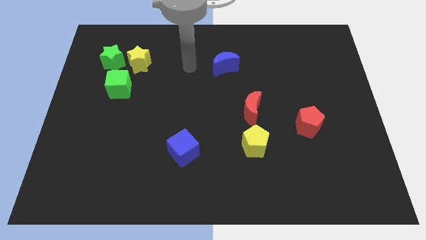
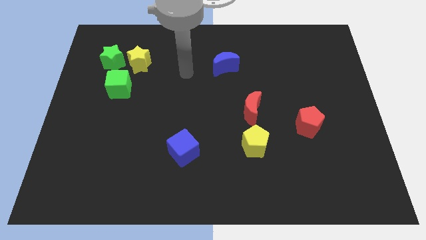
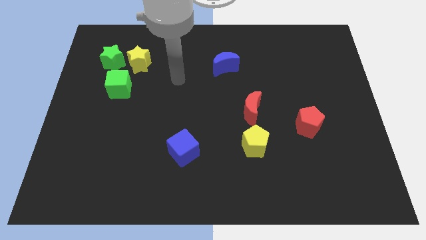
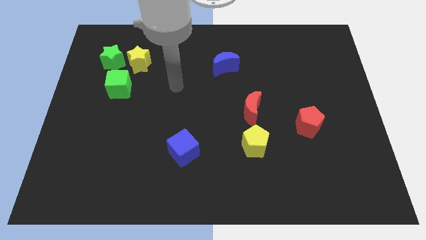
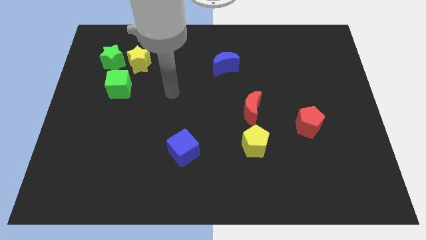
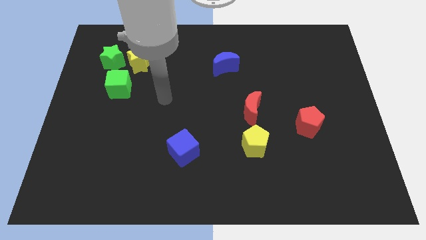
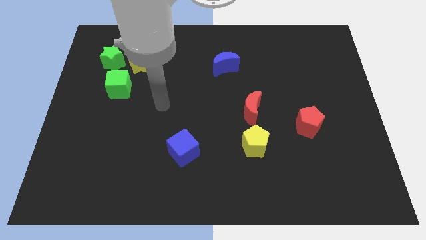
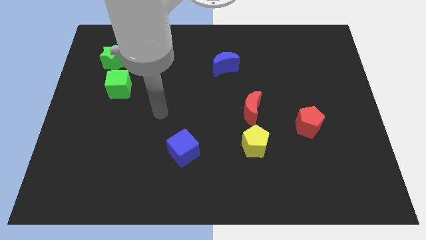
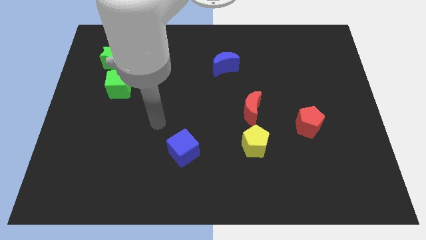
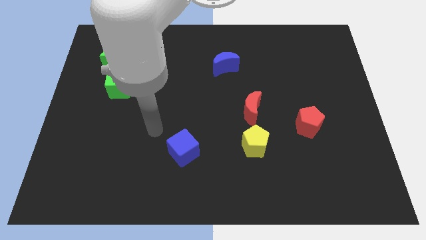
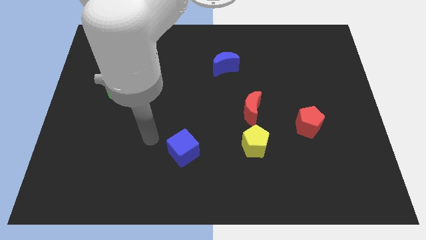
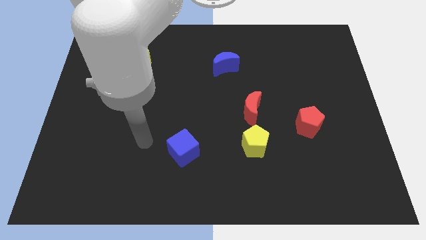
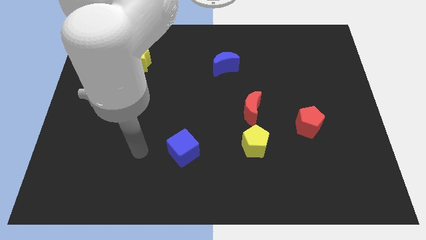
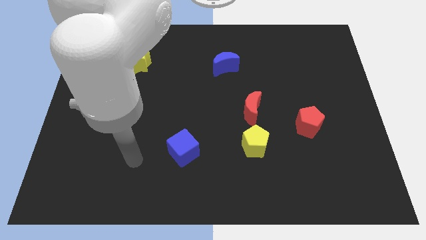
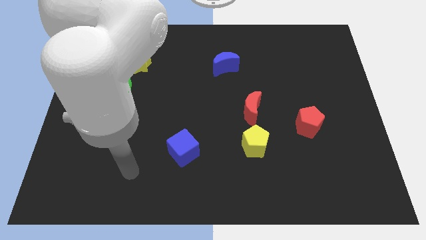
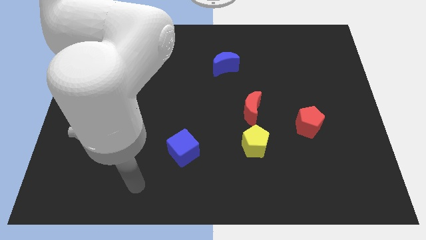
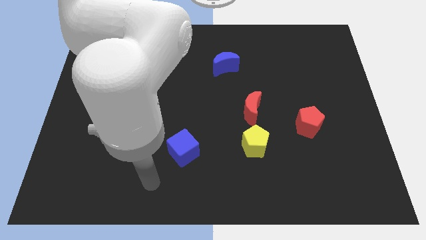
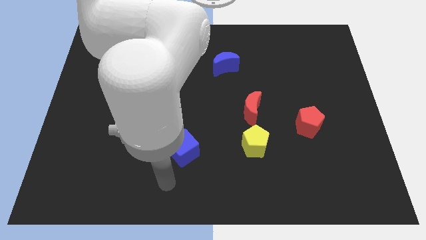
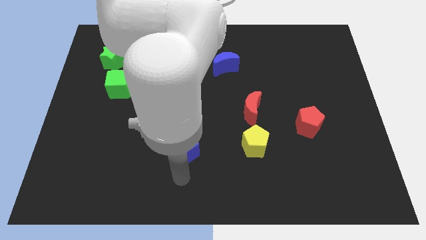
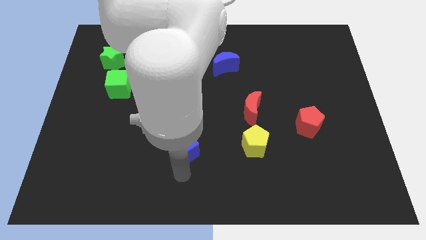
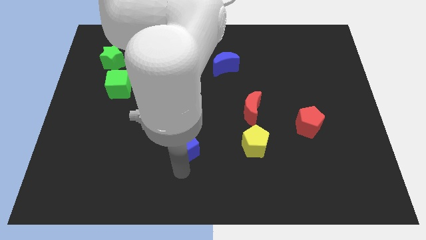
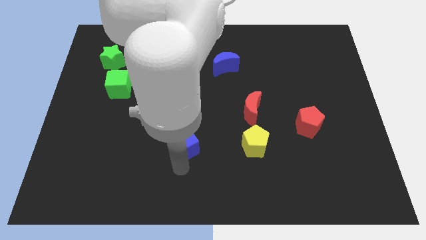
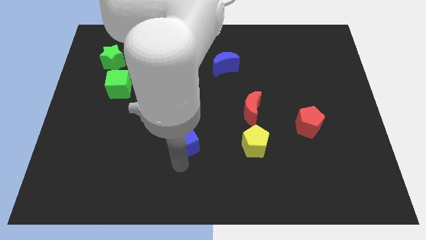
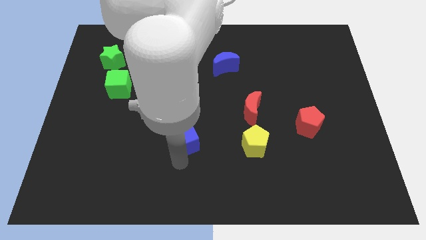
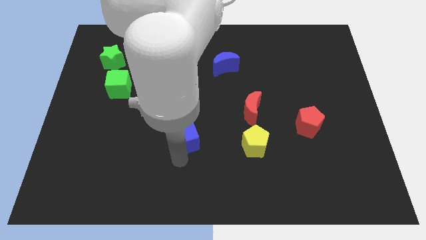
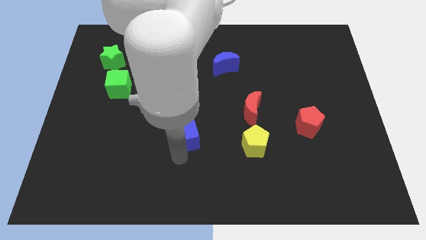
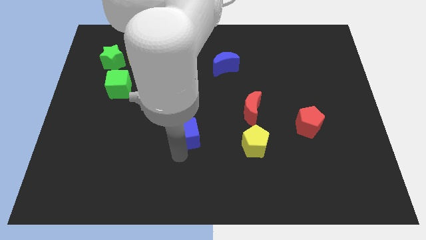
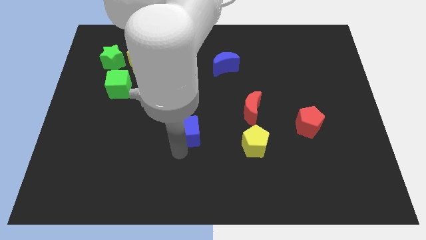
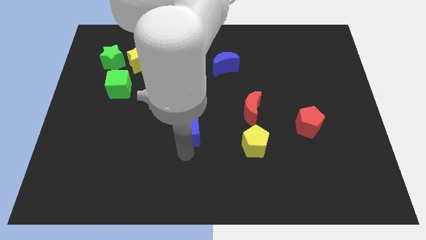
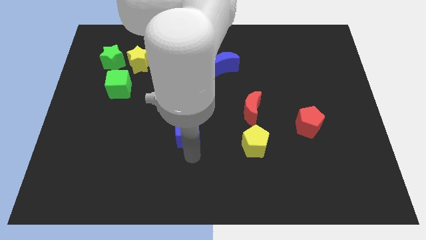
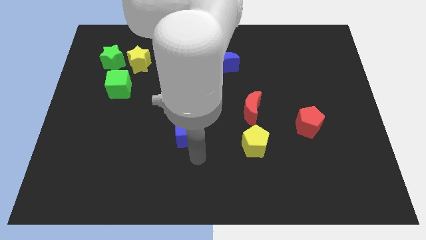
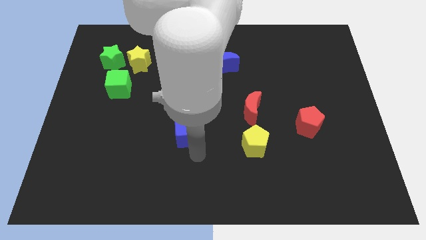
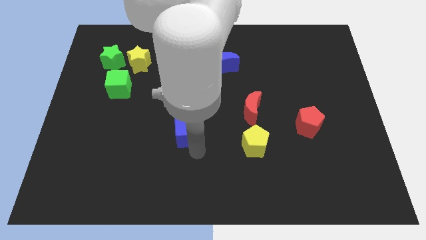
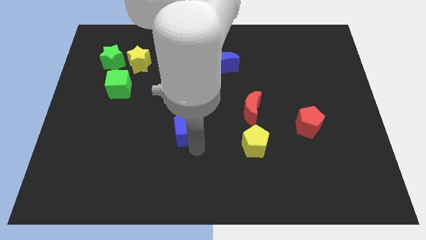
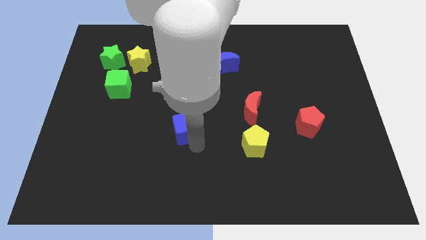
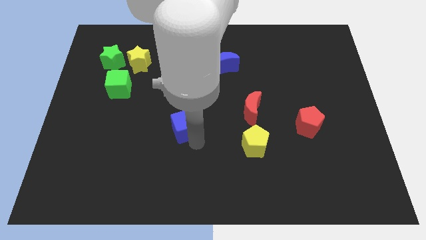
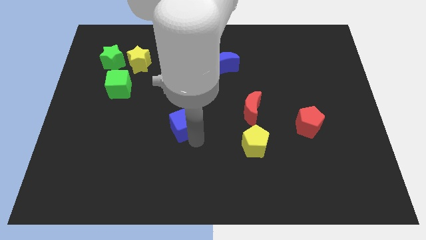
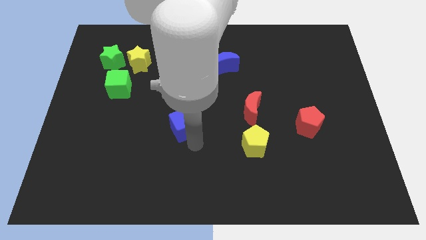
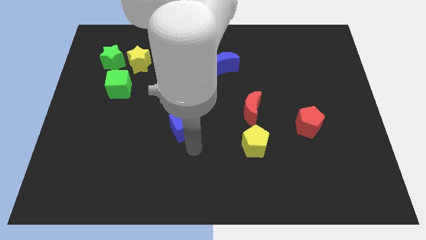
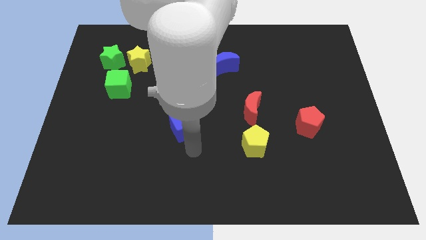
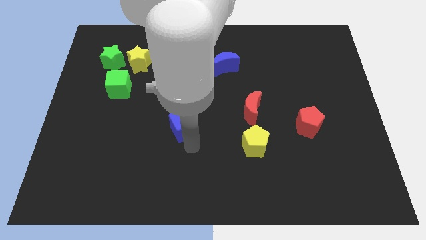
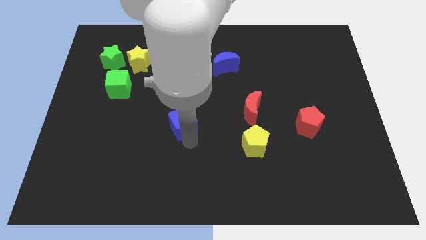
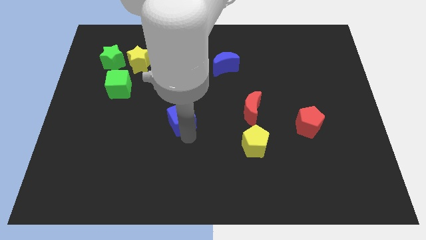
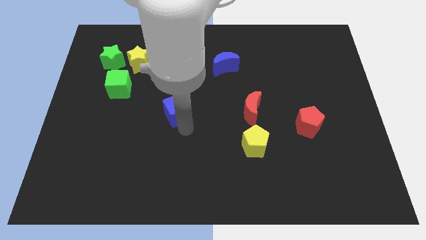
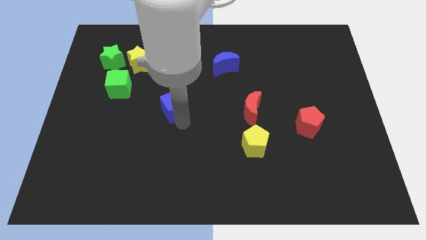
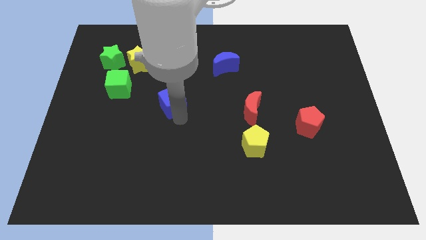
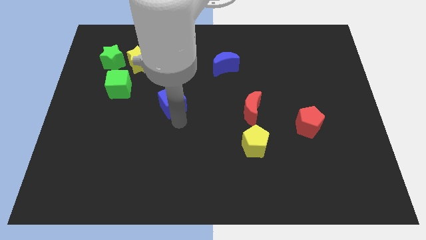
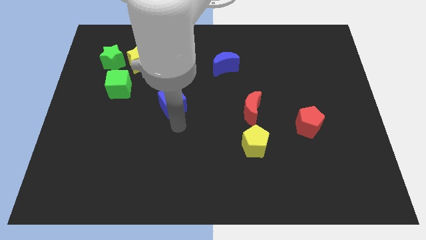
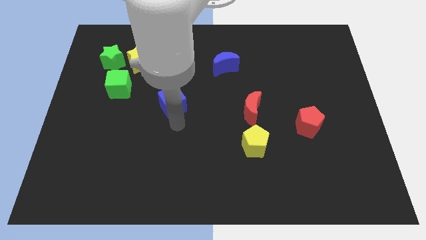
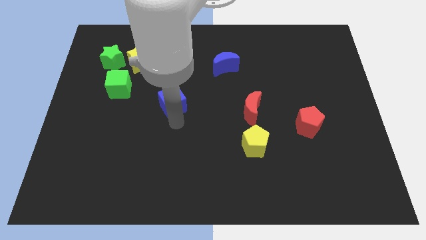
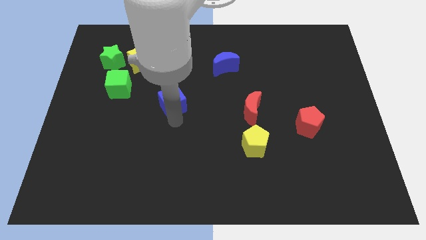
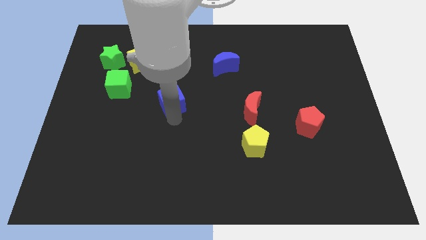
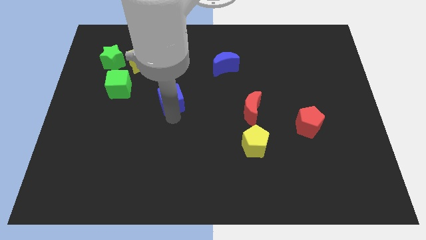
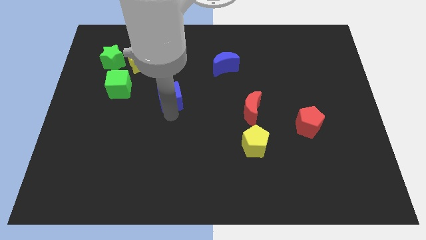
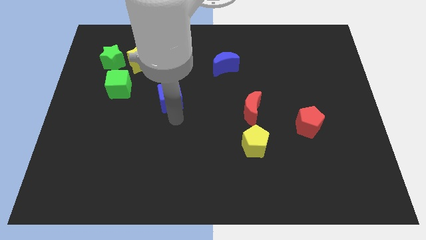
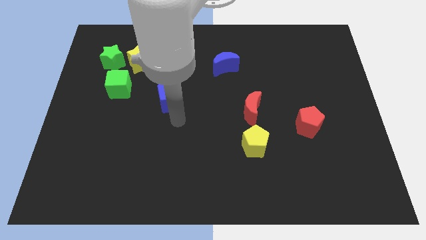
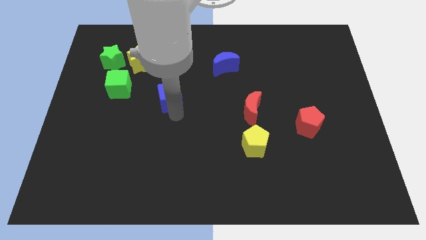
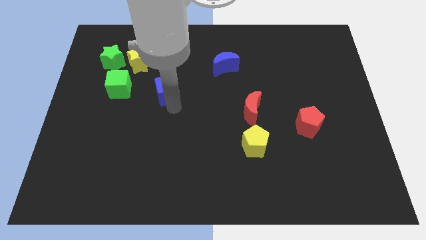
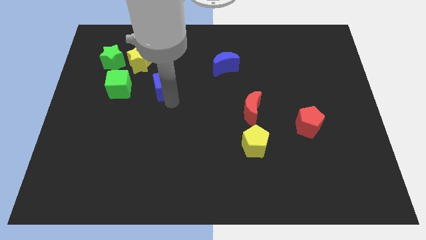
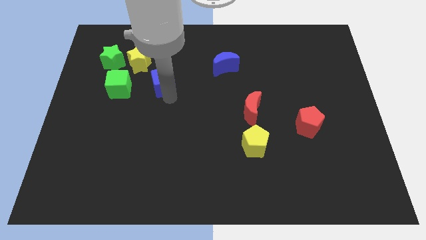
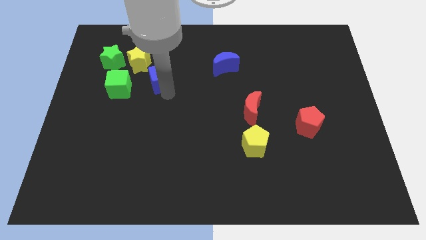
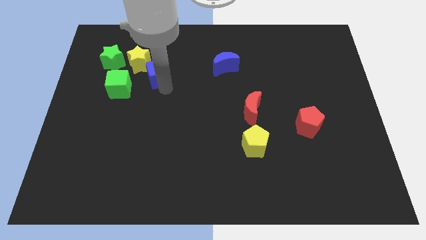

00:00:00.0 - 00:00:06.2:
put the blue cube just right of the green star
